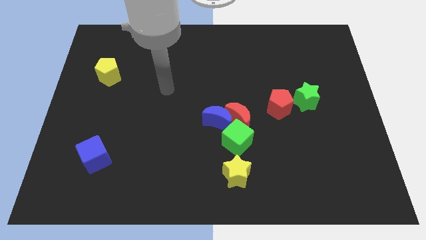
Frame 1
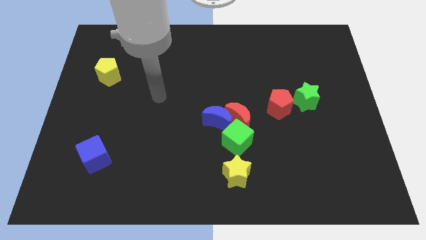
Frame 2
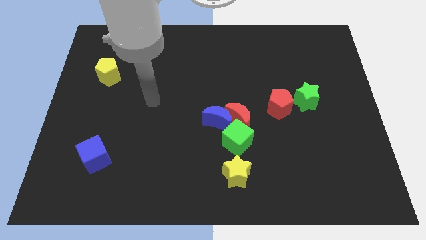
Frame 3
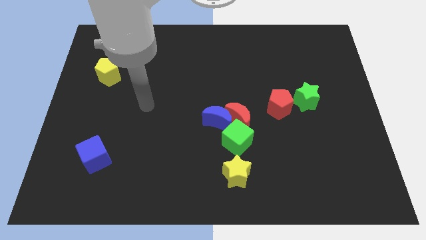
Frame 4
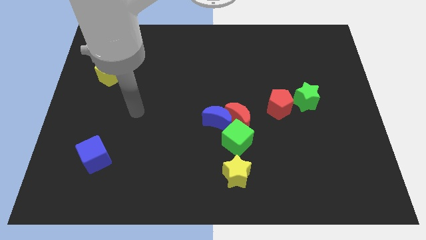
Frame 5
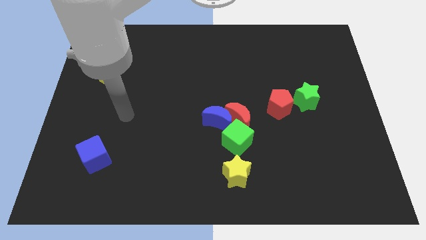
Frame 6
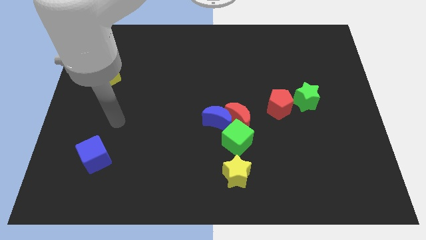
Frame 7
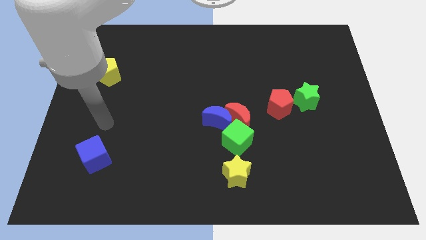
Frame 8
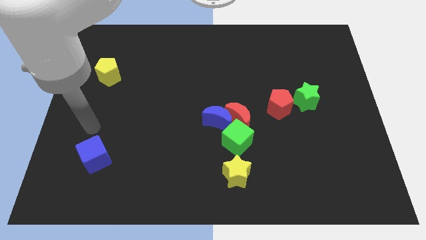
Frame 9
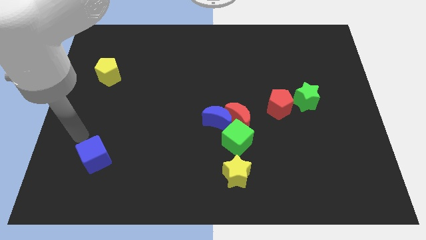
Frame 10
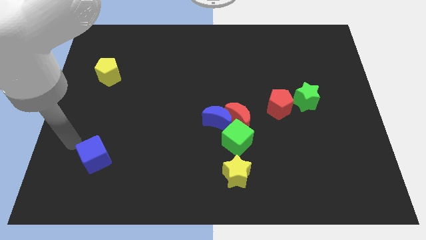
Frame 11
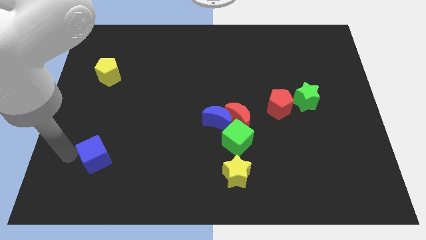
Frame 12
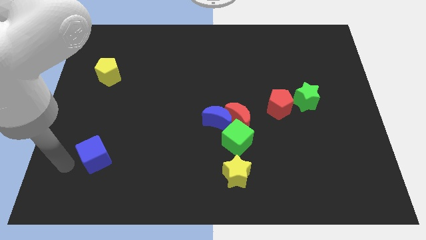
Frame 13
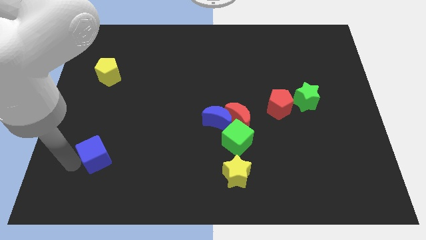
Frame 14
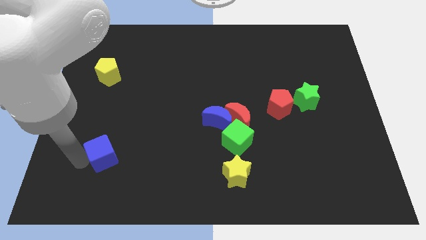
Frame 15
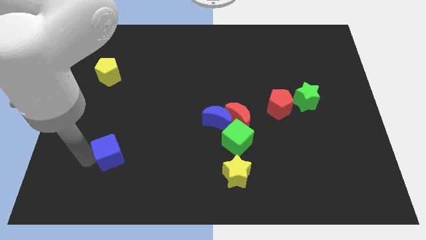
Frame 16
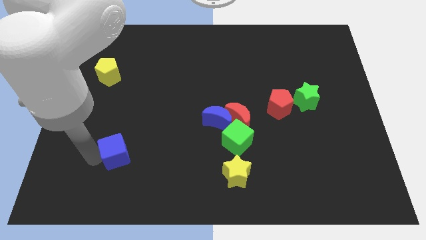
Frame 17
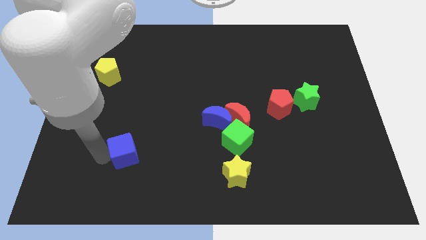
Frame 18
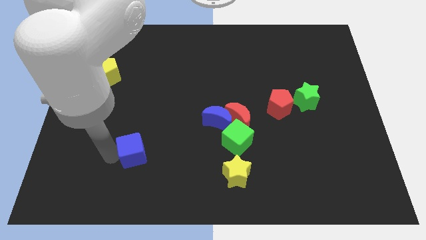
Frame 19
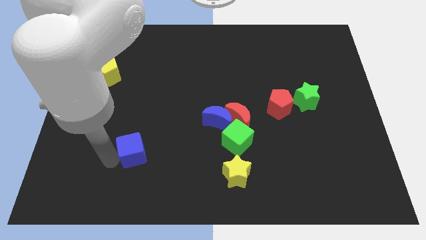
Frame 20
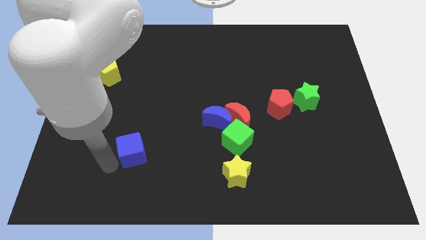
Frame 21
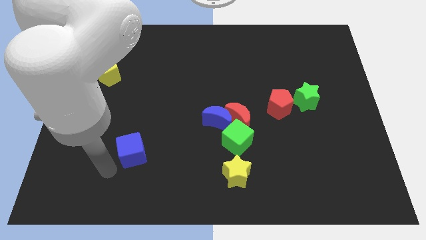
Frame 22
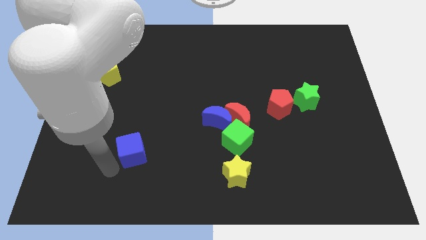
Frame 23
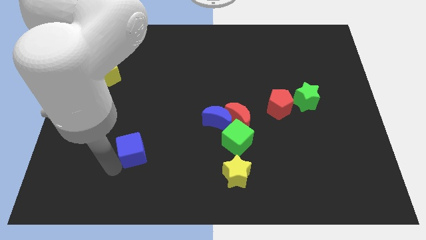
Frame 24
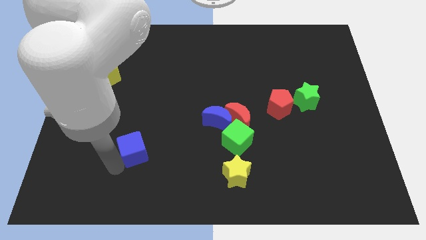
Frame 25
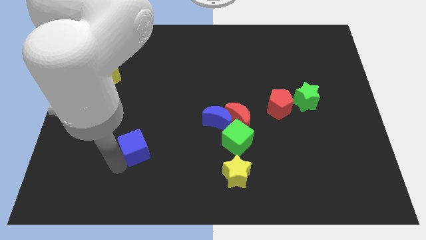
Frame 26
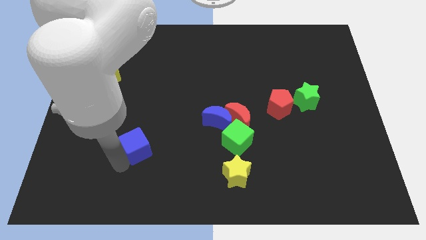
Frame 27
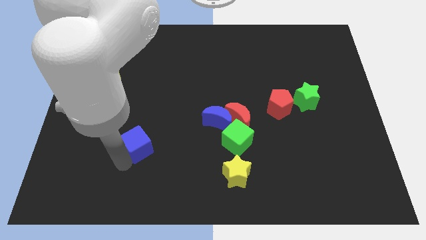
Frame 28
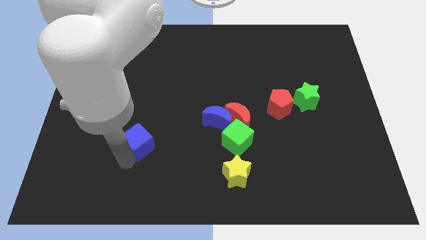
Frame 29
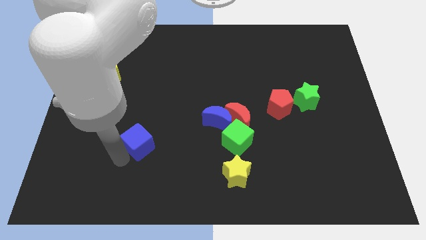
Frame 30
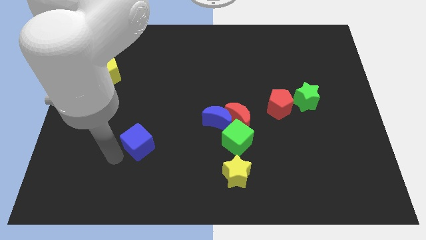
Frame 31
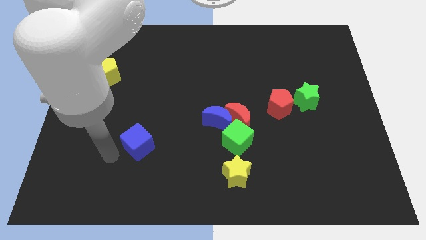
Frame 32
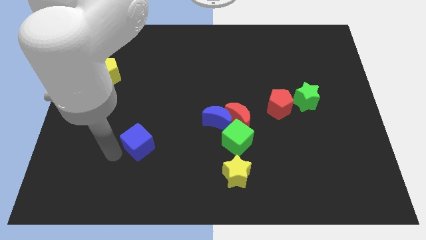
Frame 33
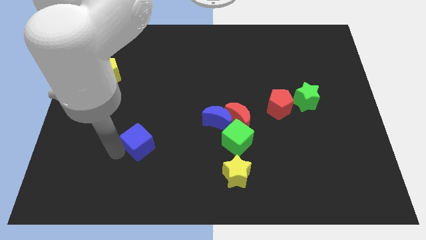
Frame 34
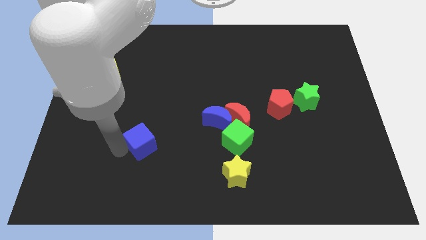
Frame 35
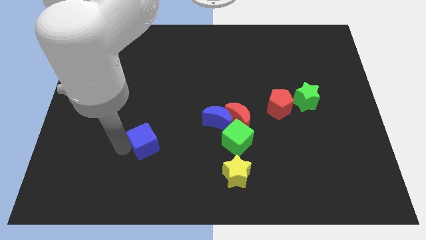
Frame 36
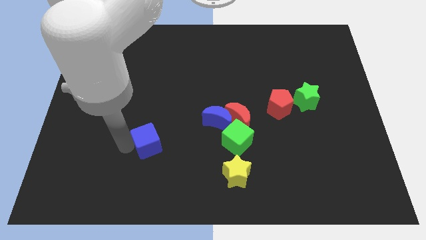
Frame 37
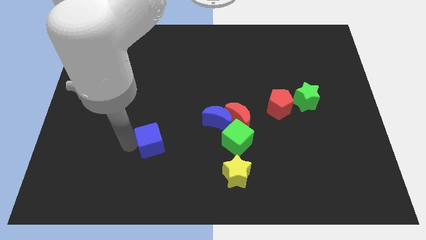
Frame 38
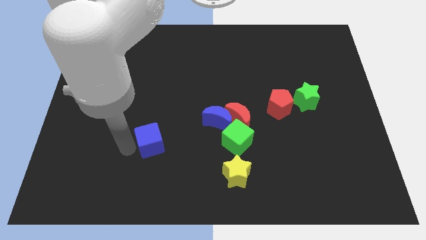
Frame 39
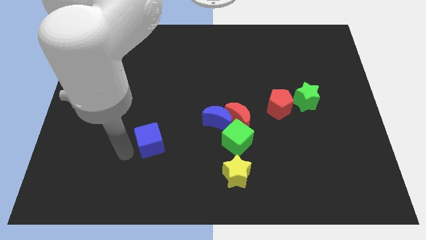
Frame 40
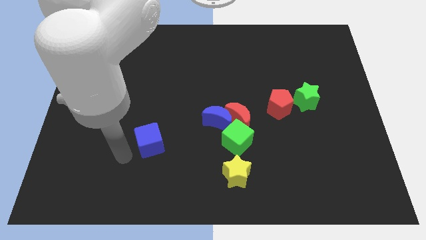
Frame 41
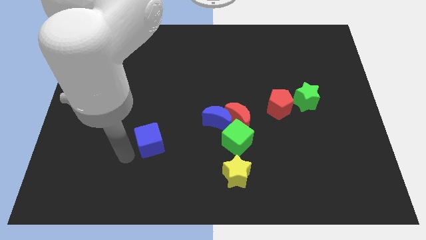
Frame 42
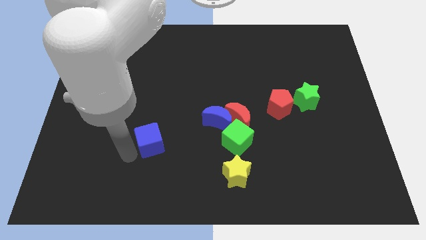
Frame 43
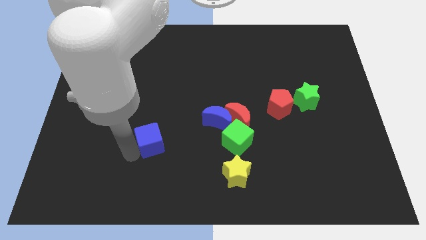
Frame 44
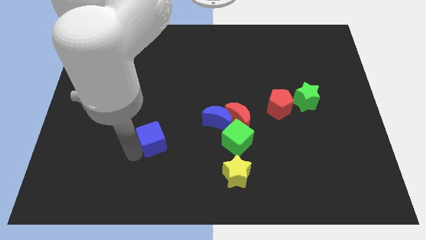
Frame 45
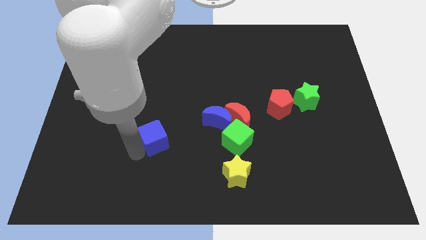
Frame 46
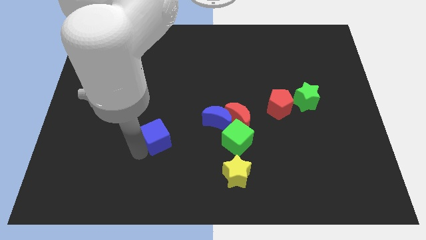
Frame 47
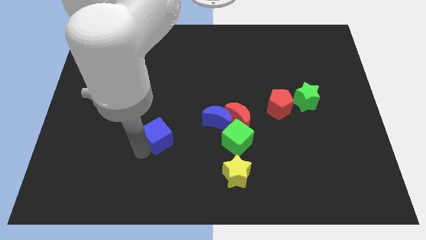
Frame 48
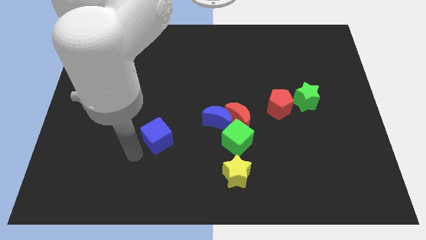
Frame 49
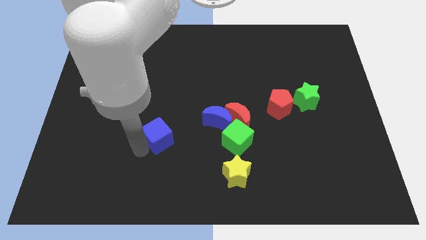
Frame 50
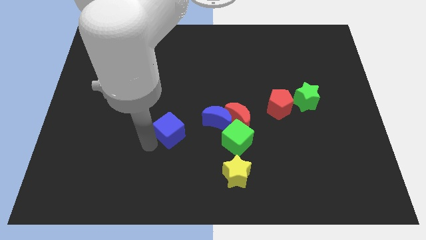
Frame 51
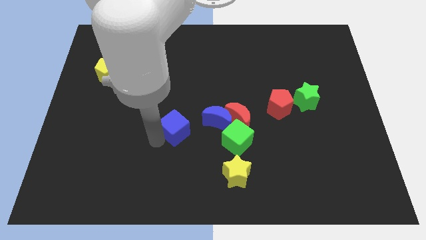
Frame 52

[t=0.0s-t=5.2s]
slide the blue cube to the middle of the board

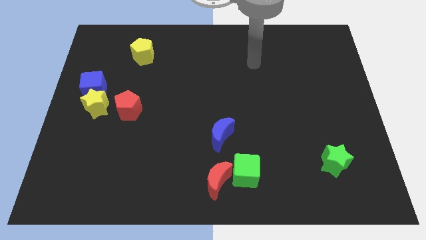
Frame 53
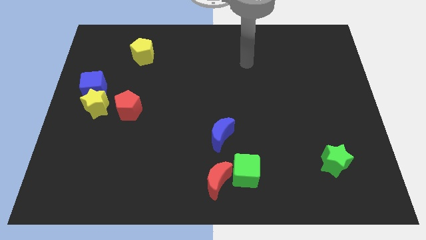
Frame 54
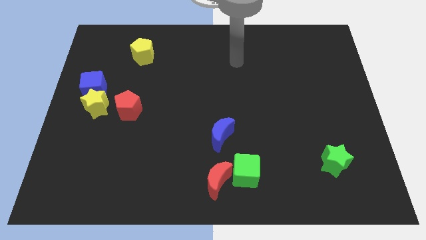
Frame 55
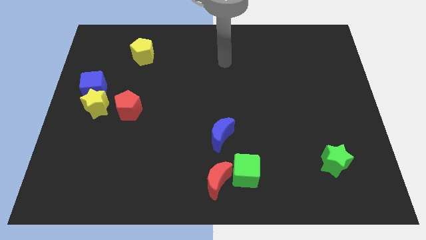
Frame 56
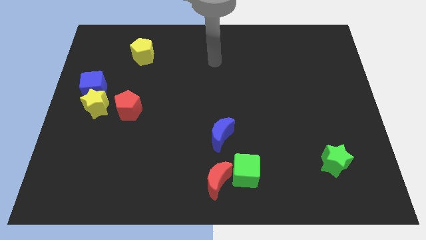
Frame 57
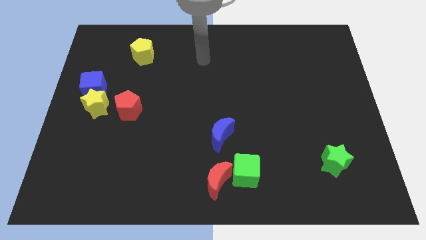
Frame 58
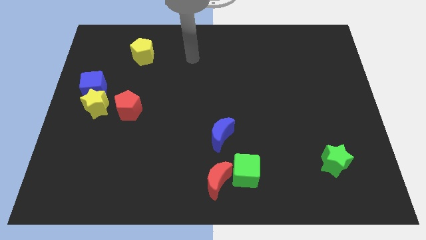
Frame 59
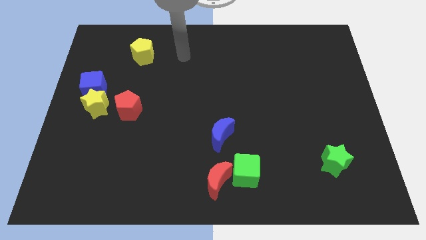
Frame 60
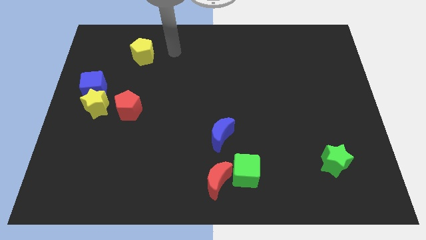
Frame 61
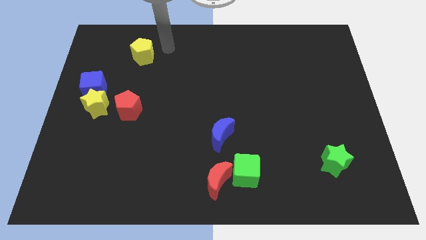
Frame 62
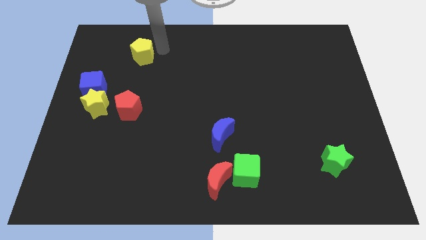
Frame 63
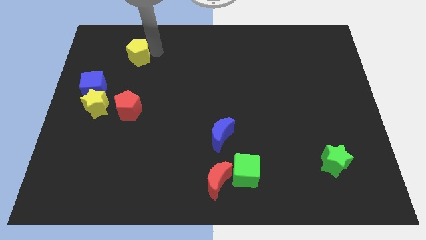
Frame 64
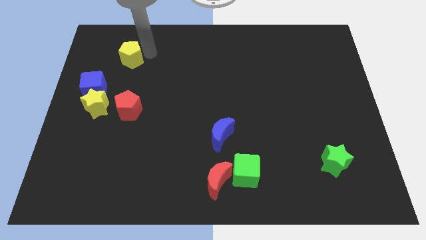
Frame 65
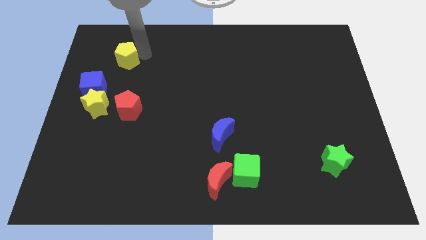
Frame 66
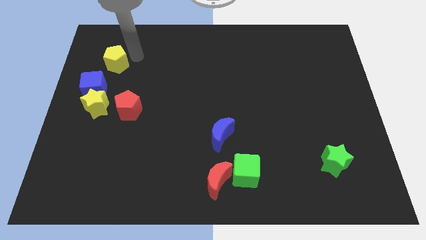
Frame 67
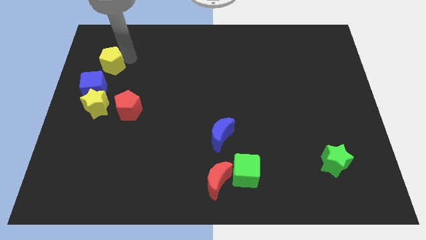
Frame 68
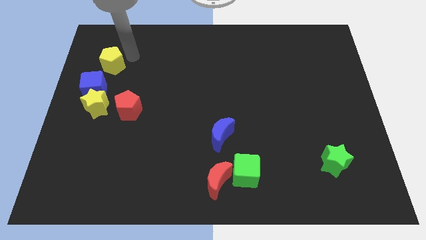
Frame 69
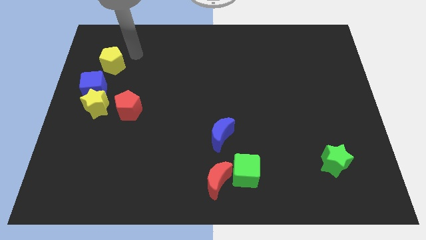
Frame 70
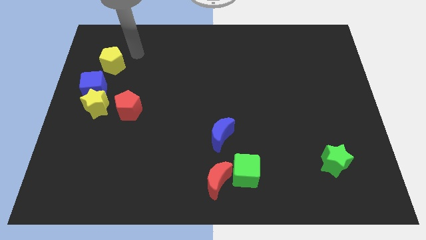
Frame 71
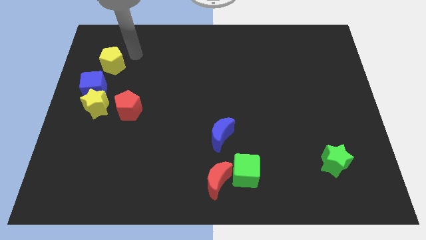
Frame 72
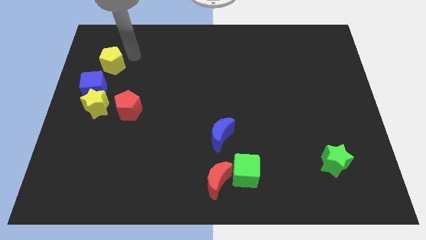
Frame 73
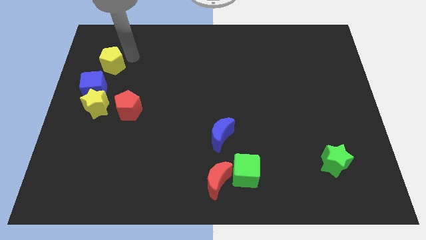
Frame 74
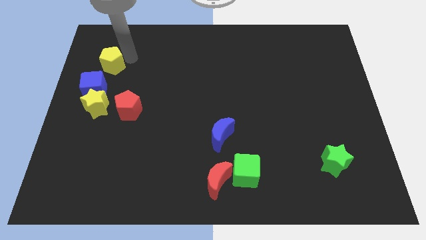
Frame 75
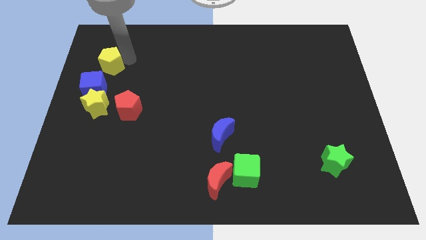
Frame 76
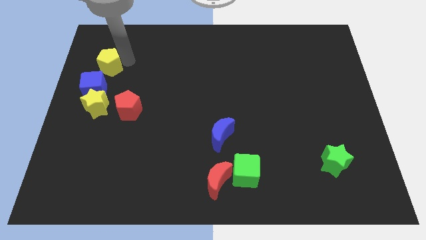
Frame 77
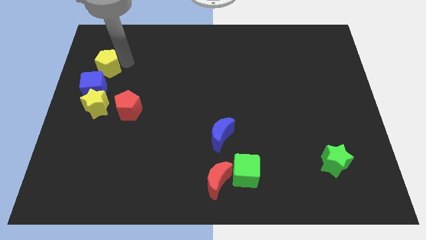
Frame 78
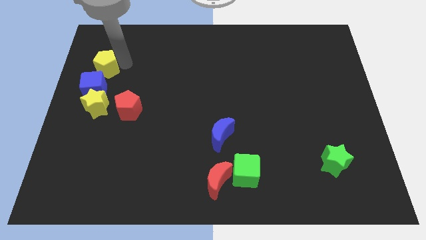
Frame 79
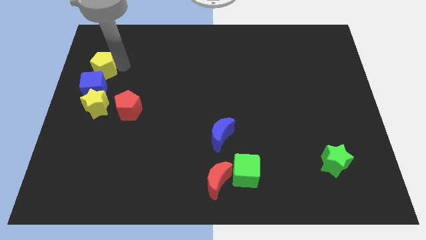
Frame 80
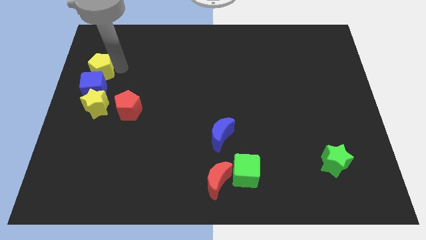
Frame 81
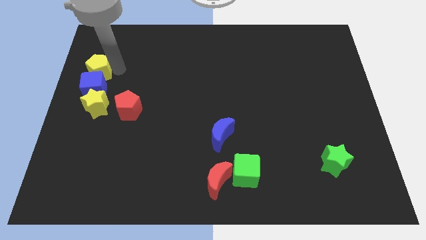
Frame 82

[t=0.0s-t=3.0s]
slide the yellow pentagon to the left side of the board
